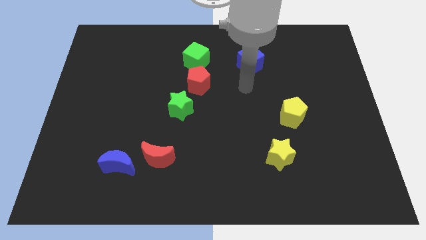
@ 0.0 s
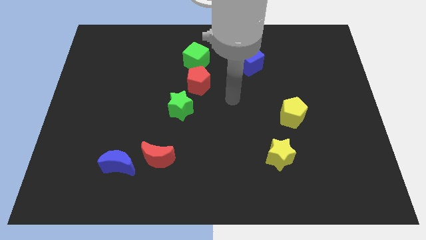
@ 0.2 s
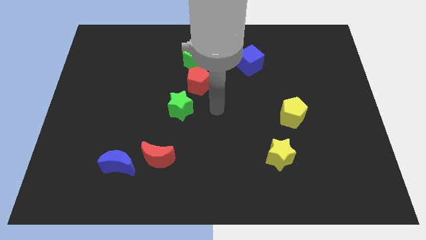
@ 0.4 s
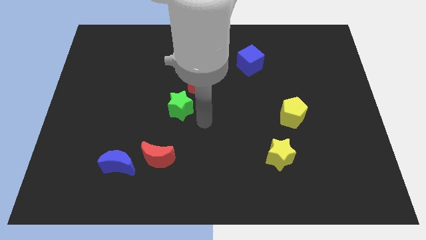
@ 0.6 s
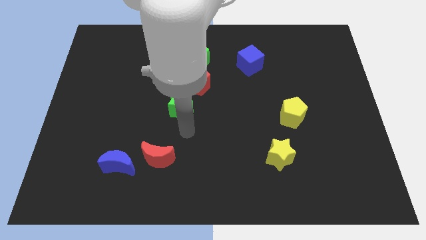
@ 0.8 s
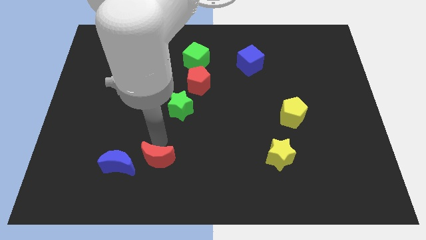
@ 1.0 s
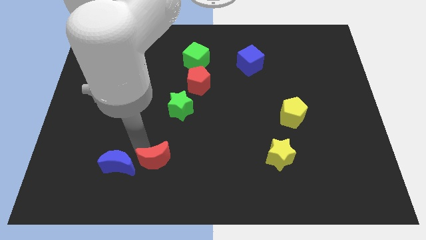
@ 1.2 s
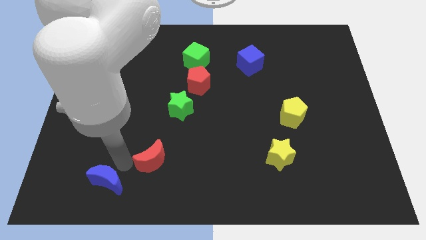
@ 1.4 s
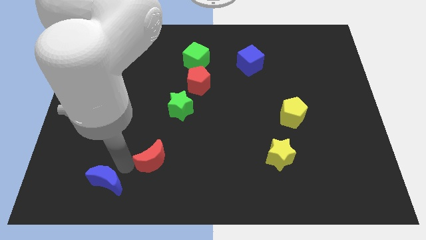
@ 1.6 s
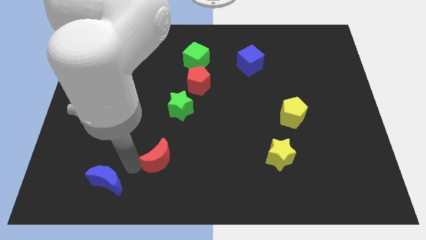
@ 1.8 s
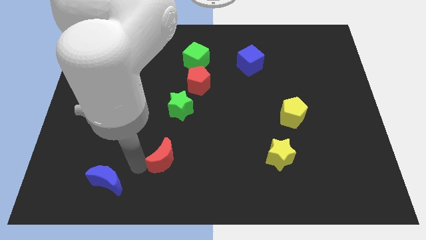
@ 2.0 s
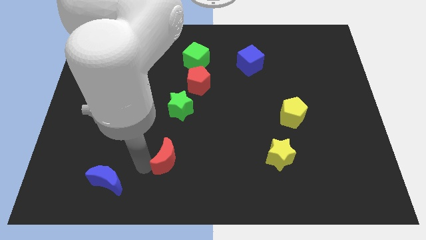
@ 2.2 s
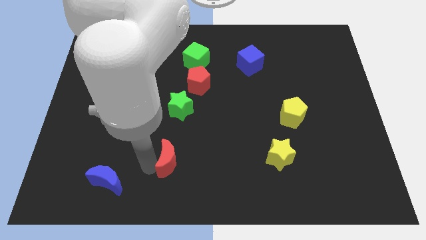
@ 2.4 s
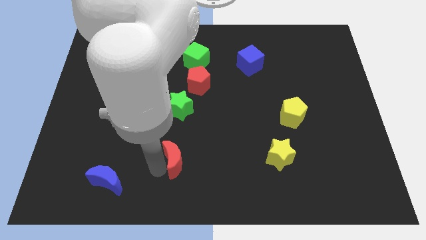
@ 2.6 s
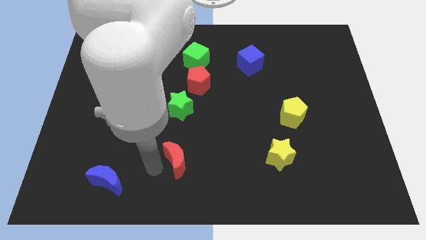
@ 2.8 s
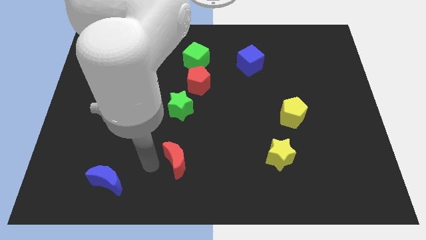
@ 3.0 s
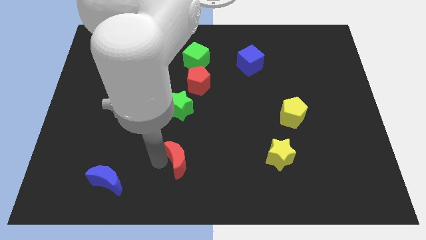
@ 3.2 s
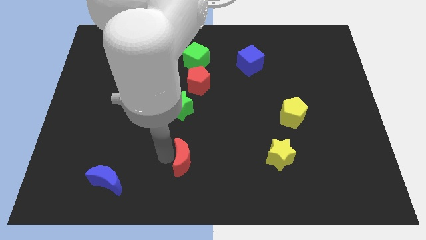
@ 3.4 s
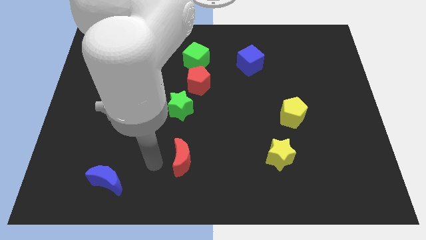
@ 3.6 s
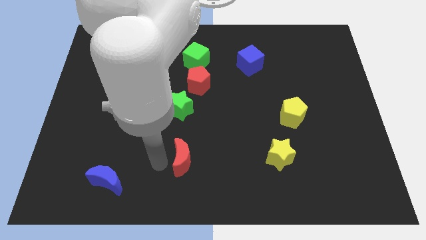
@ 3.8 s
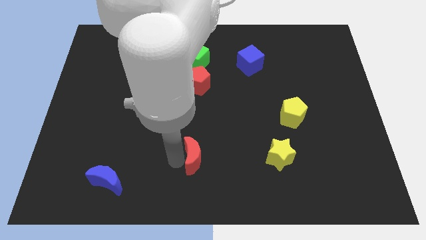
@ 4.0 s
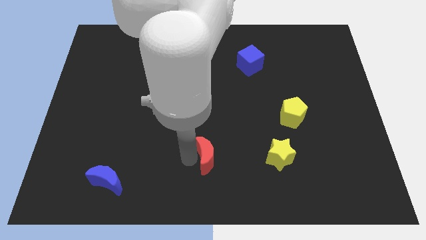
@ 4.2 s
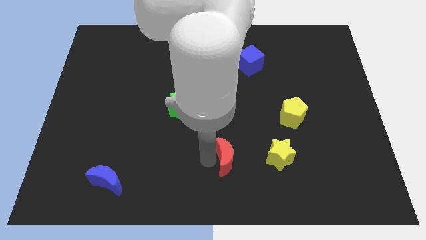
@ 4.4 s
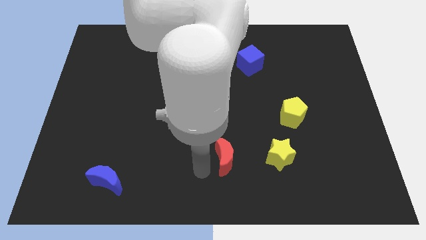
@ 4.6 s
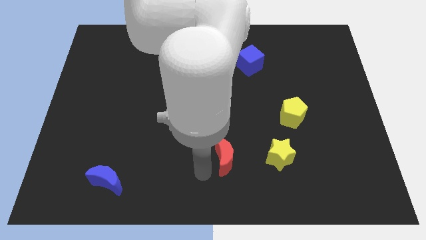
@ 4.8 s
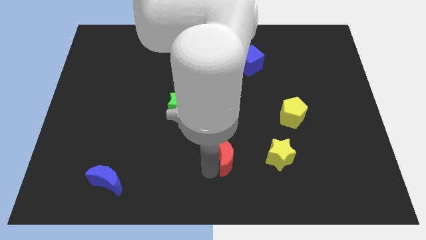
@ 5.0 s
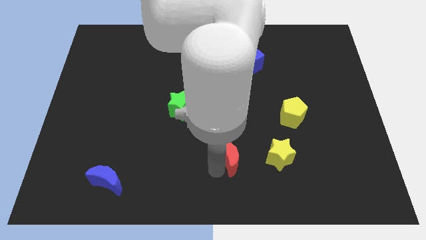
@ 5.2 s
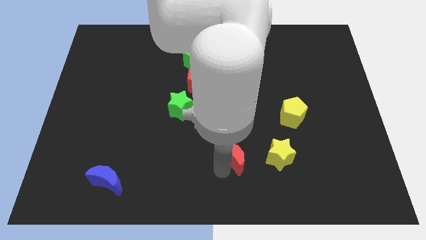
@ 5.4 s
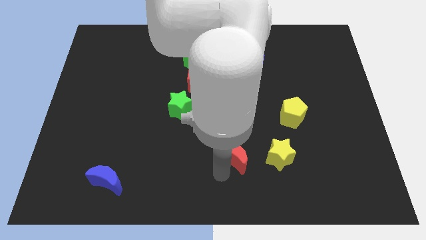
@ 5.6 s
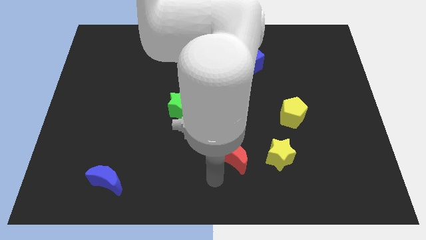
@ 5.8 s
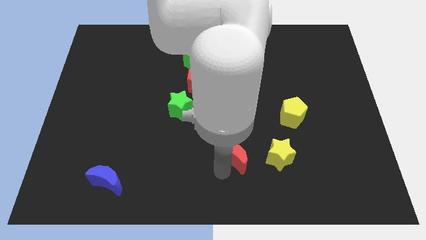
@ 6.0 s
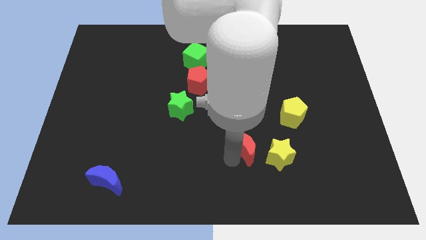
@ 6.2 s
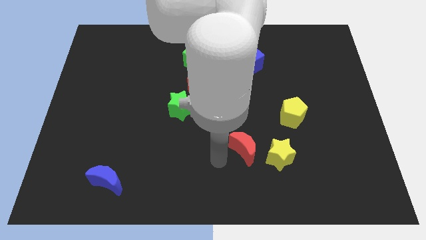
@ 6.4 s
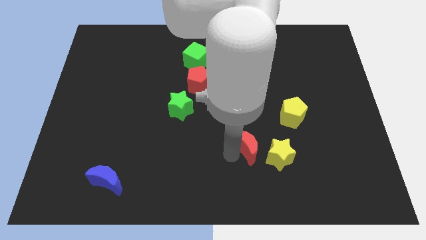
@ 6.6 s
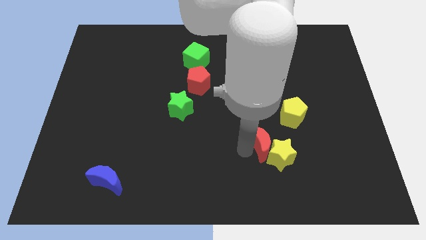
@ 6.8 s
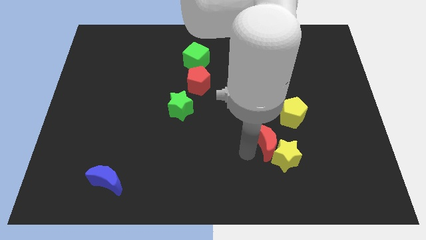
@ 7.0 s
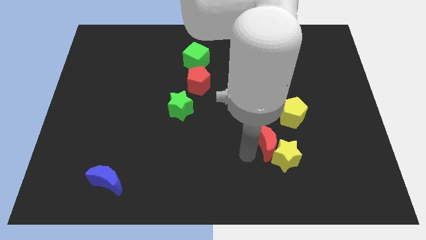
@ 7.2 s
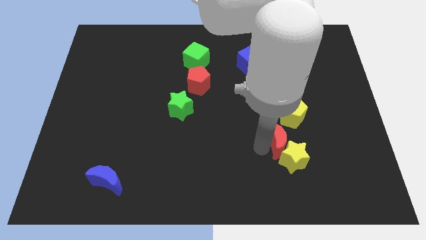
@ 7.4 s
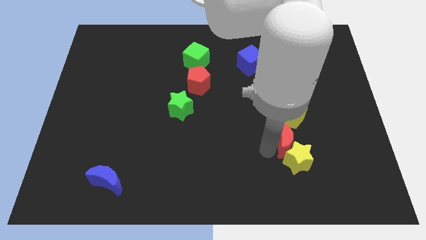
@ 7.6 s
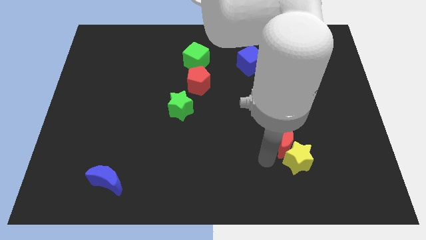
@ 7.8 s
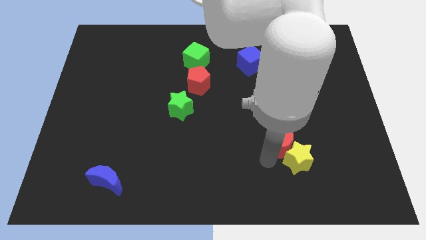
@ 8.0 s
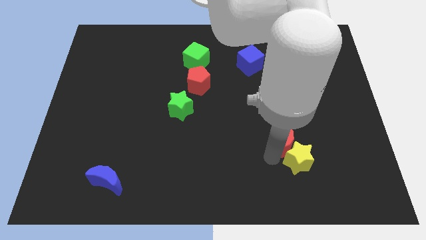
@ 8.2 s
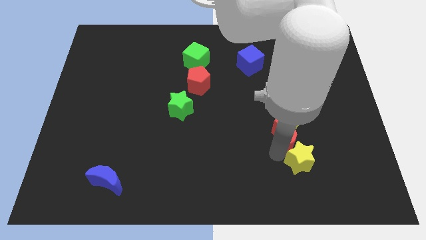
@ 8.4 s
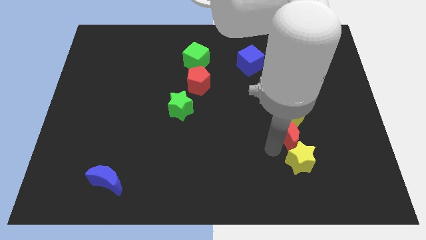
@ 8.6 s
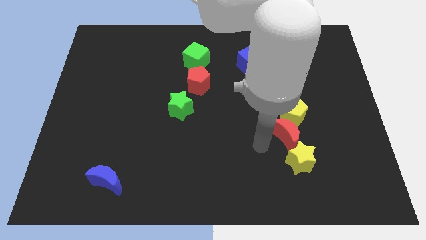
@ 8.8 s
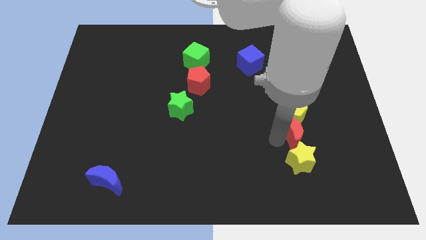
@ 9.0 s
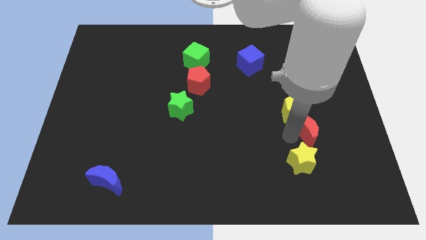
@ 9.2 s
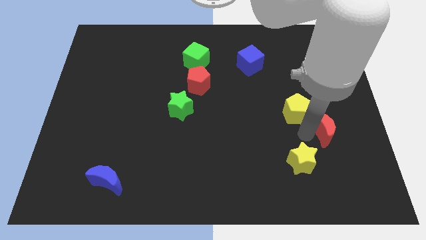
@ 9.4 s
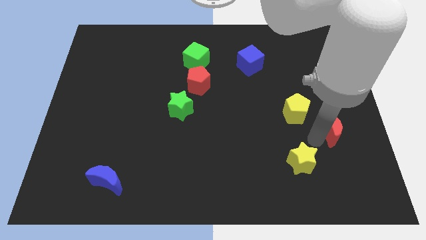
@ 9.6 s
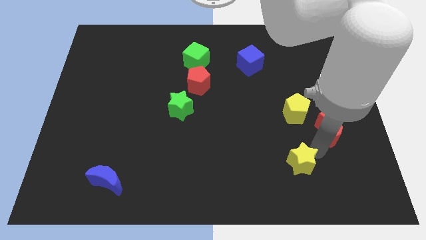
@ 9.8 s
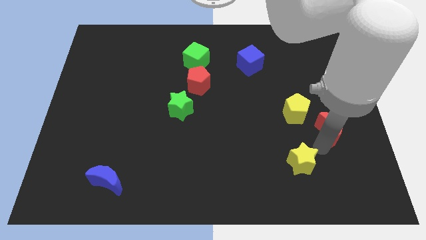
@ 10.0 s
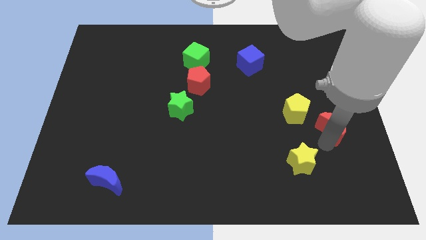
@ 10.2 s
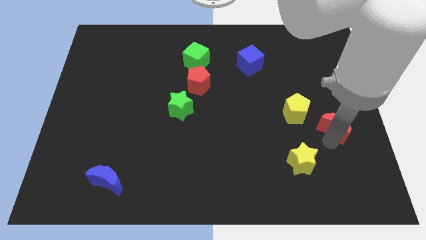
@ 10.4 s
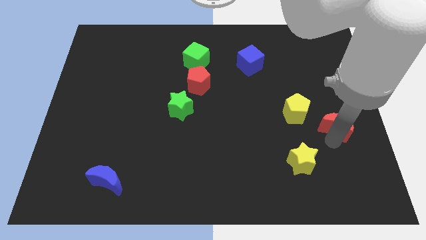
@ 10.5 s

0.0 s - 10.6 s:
move the red moon to the center right

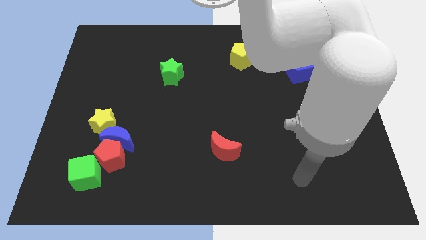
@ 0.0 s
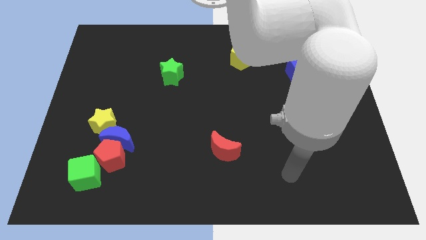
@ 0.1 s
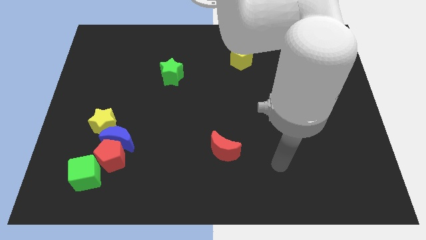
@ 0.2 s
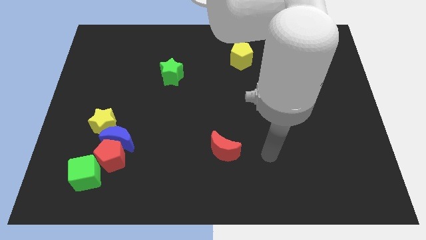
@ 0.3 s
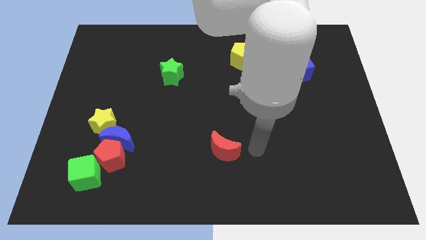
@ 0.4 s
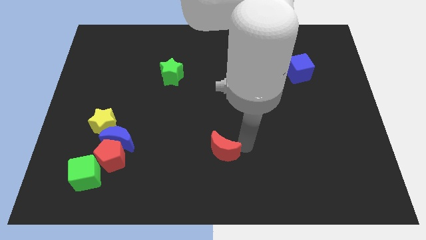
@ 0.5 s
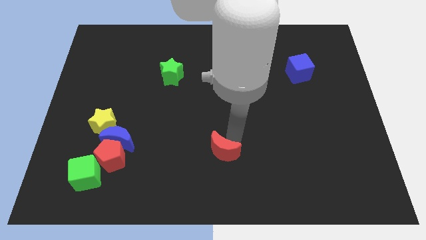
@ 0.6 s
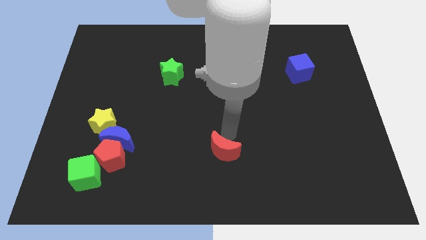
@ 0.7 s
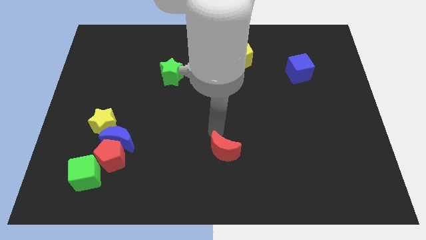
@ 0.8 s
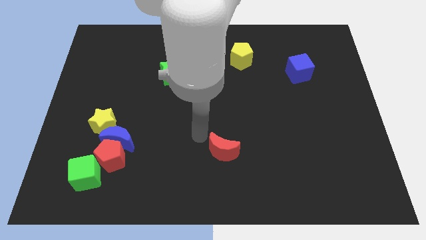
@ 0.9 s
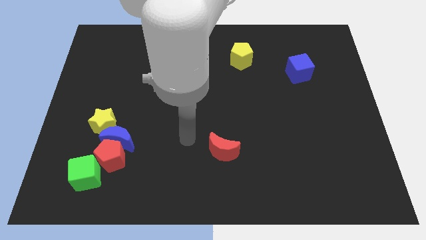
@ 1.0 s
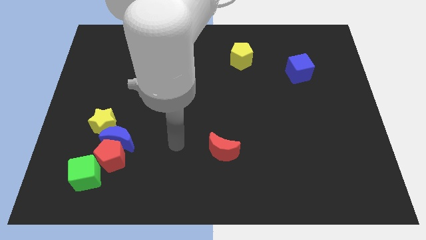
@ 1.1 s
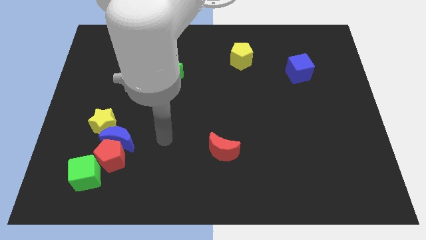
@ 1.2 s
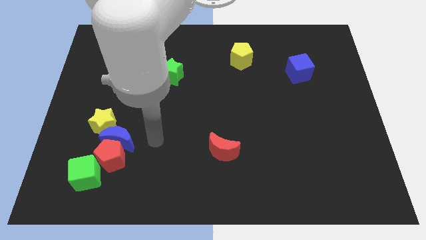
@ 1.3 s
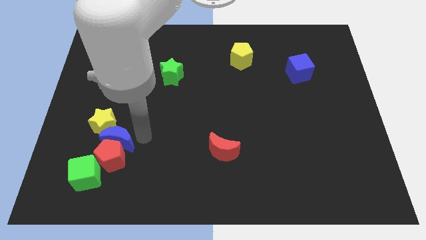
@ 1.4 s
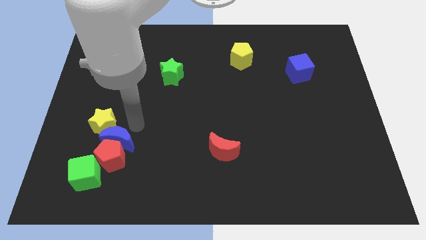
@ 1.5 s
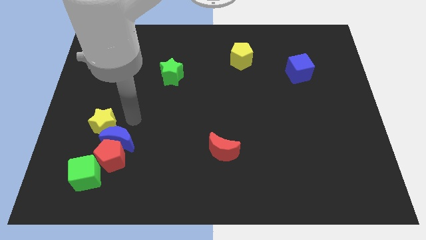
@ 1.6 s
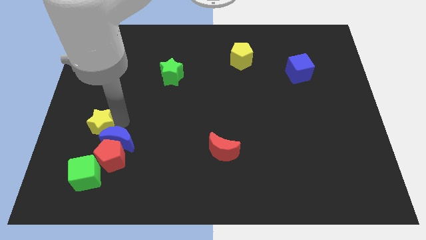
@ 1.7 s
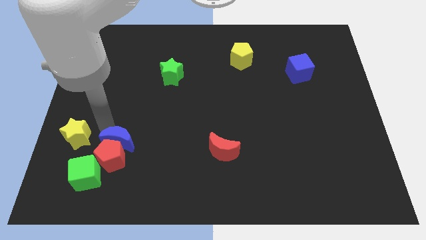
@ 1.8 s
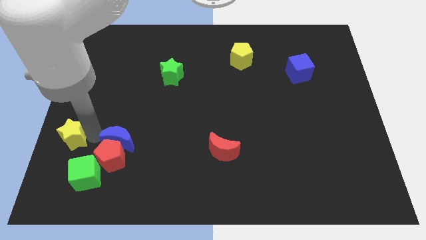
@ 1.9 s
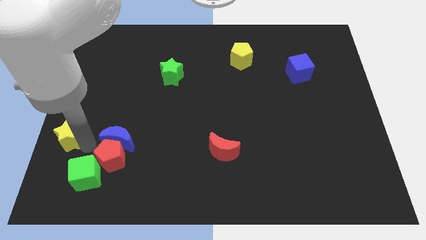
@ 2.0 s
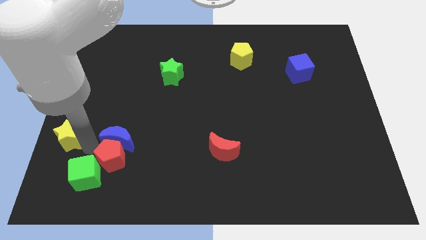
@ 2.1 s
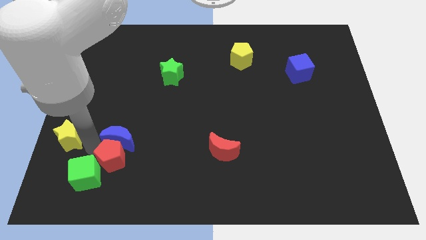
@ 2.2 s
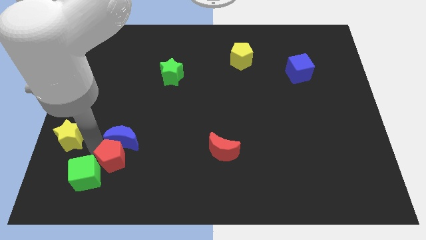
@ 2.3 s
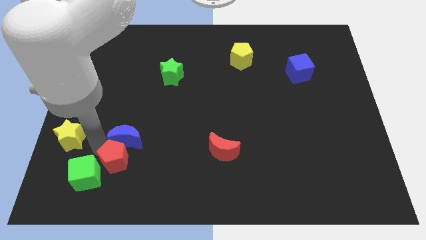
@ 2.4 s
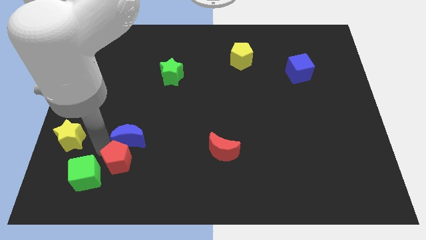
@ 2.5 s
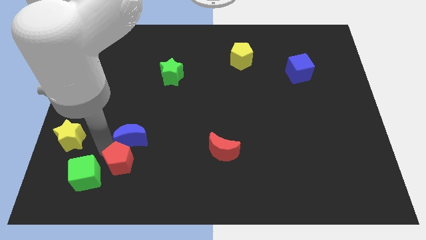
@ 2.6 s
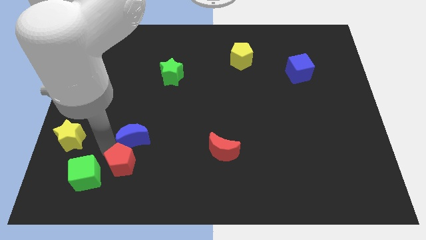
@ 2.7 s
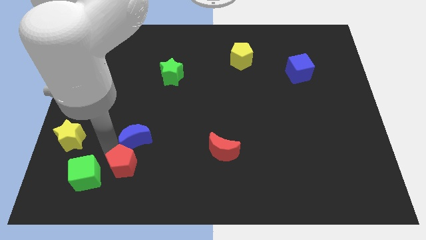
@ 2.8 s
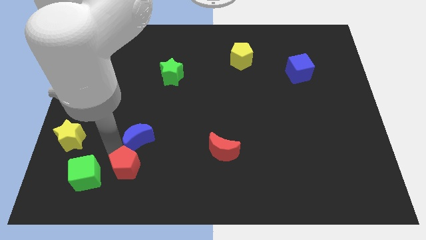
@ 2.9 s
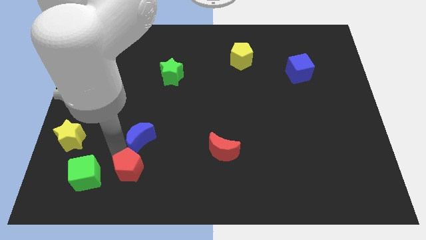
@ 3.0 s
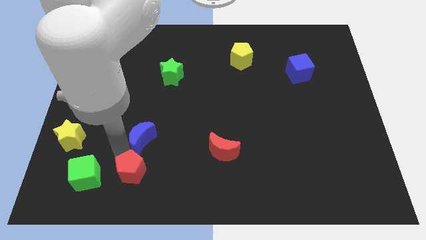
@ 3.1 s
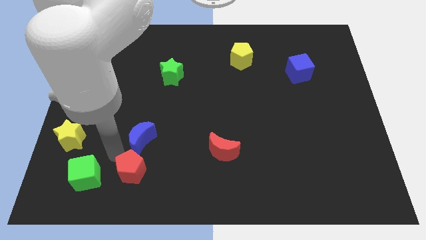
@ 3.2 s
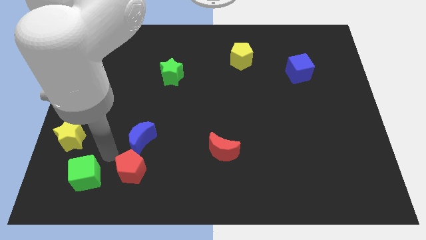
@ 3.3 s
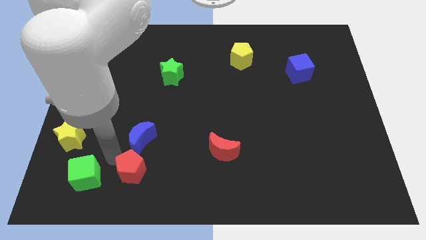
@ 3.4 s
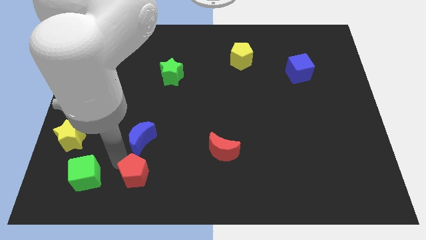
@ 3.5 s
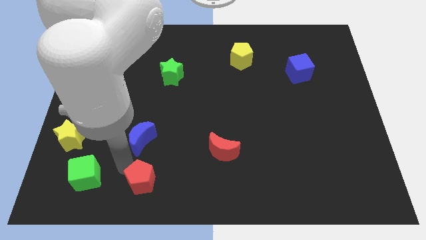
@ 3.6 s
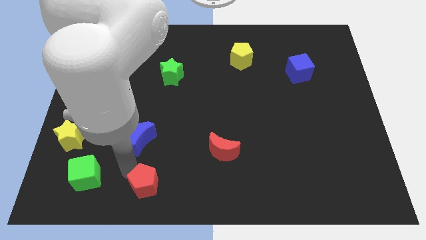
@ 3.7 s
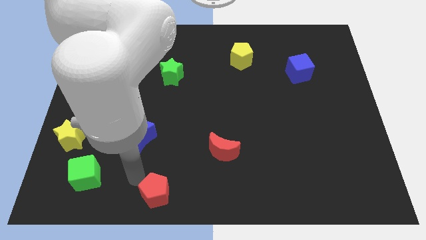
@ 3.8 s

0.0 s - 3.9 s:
slide the red pentagon to the bottom side
